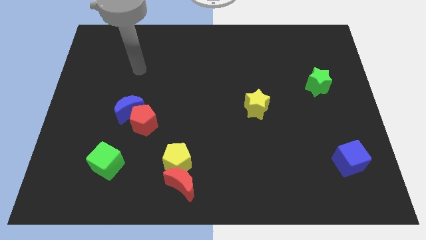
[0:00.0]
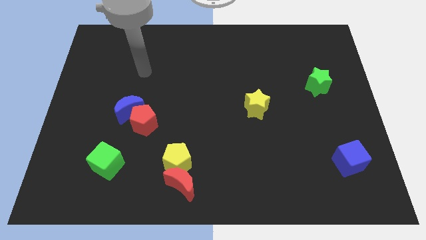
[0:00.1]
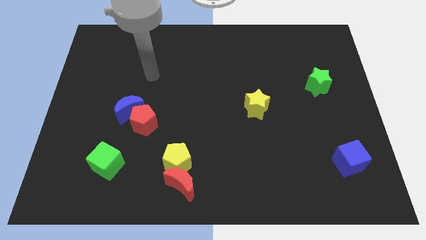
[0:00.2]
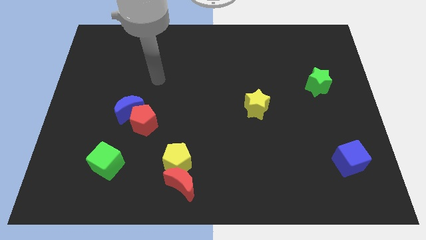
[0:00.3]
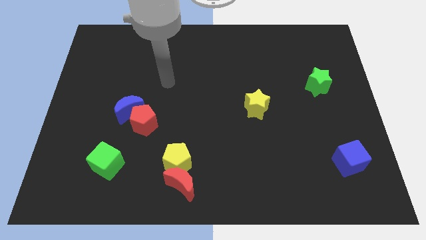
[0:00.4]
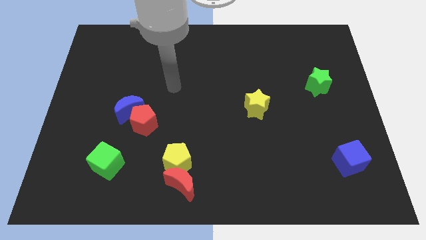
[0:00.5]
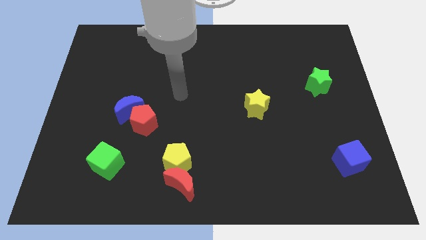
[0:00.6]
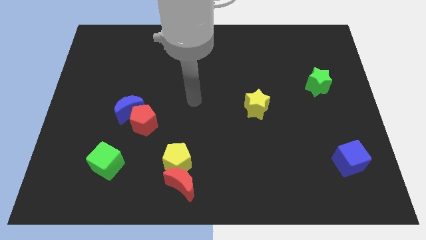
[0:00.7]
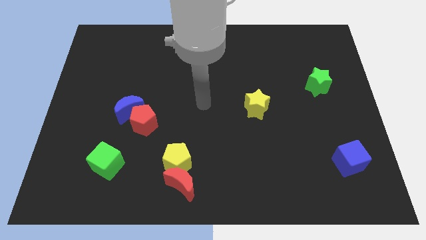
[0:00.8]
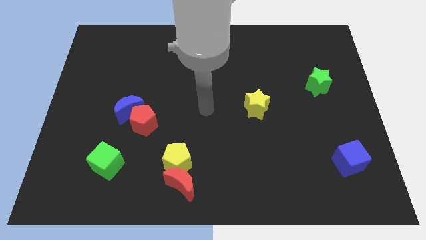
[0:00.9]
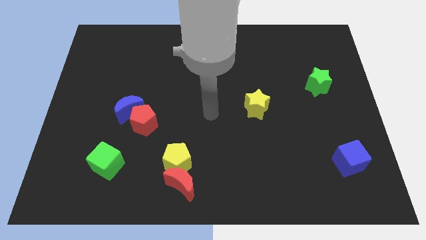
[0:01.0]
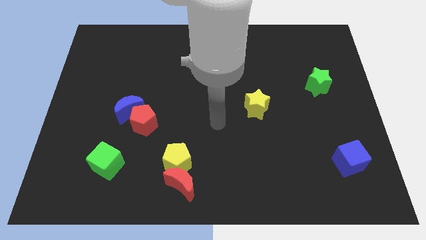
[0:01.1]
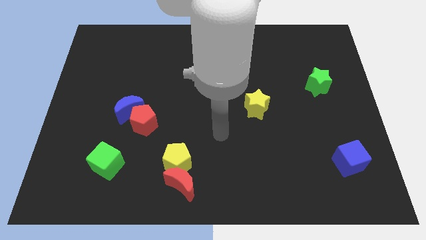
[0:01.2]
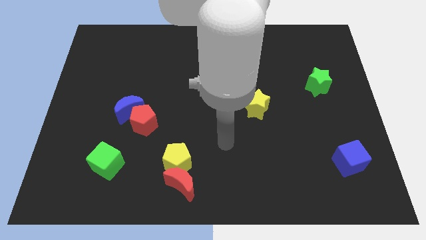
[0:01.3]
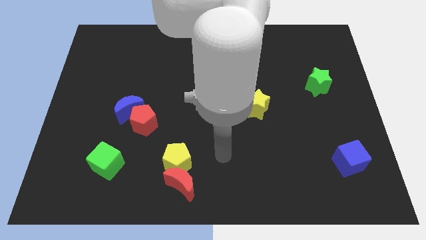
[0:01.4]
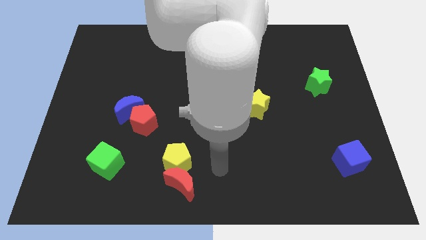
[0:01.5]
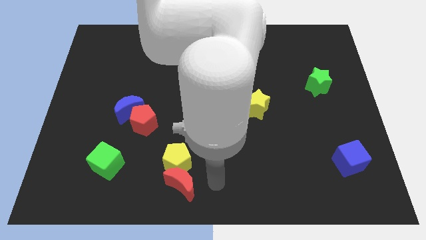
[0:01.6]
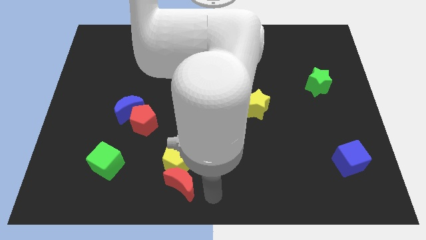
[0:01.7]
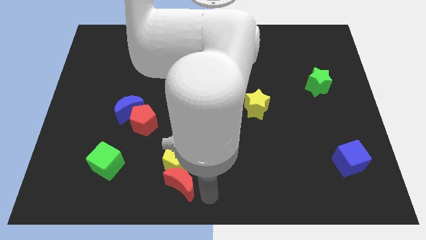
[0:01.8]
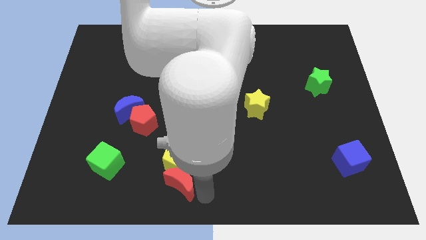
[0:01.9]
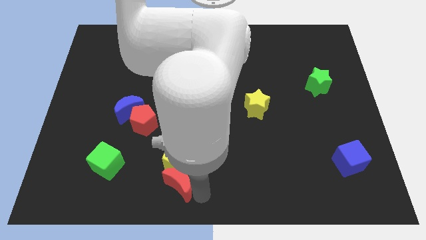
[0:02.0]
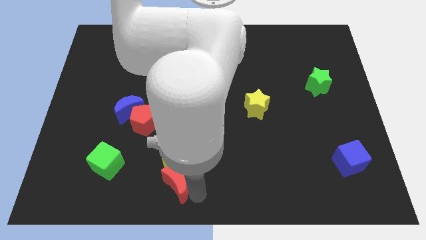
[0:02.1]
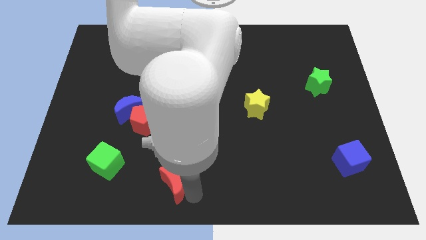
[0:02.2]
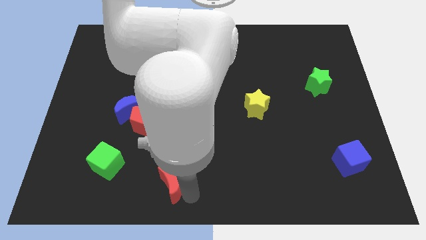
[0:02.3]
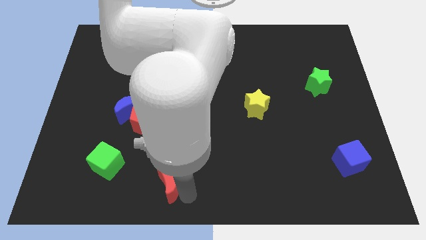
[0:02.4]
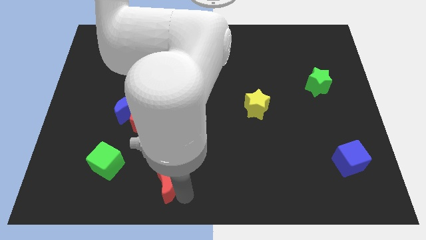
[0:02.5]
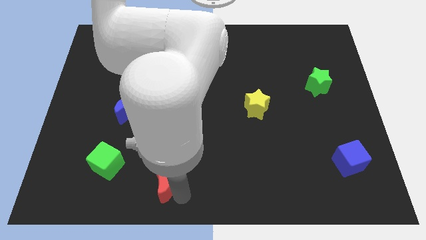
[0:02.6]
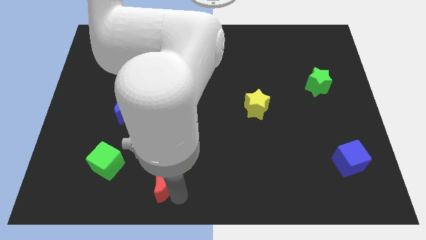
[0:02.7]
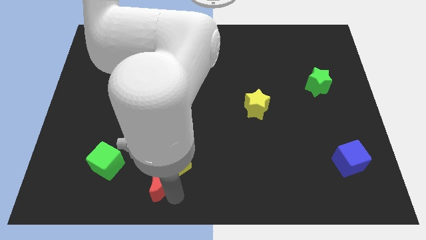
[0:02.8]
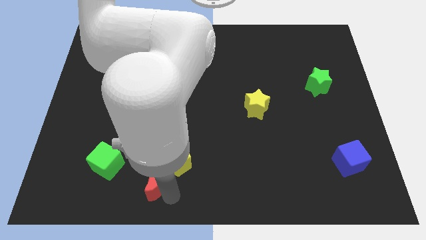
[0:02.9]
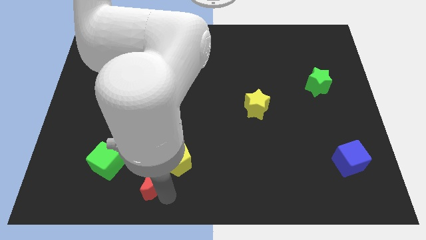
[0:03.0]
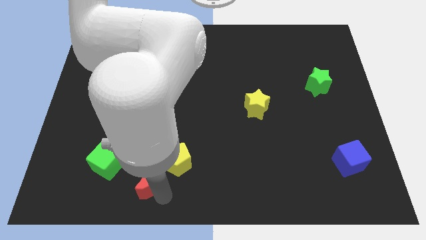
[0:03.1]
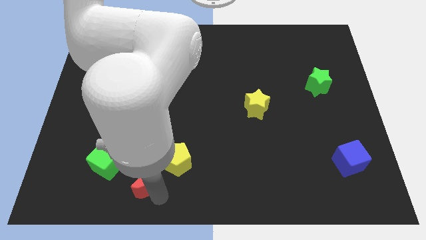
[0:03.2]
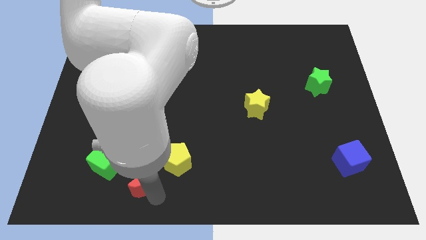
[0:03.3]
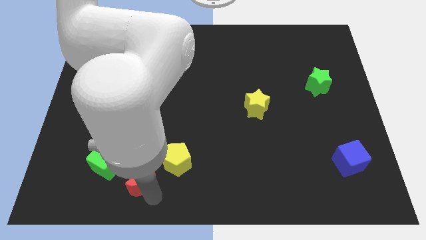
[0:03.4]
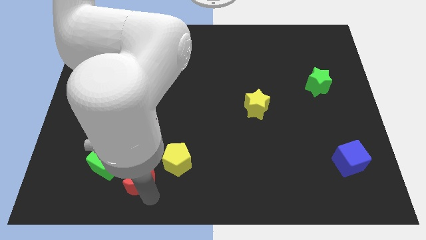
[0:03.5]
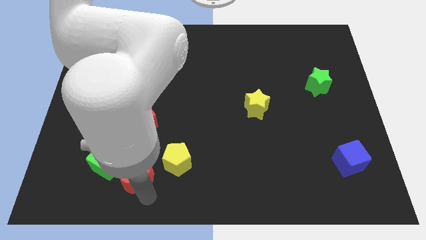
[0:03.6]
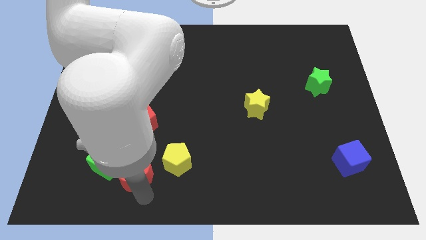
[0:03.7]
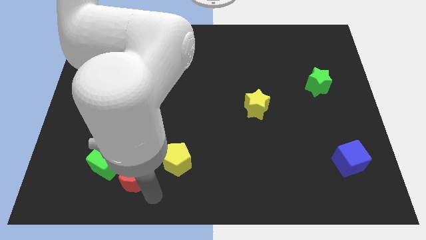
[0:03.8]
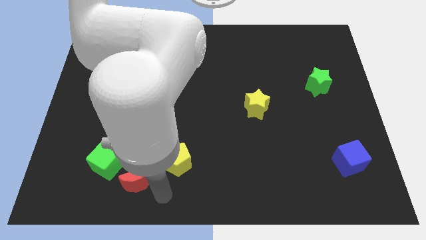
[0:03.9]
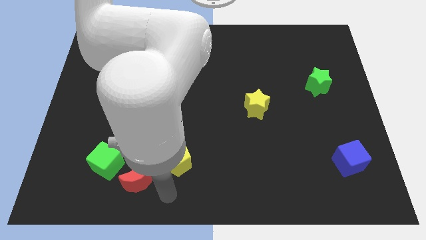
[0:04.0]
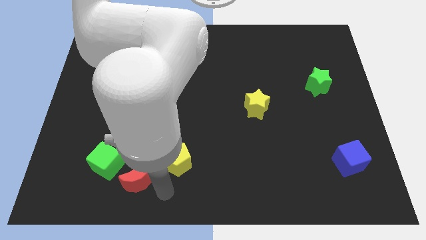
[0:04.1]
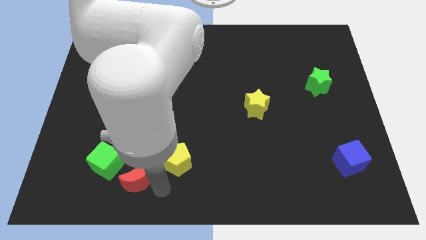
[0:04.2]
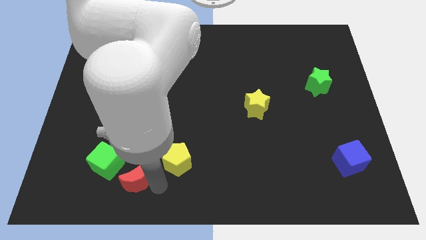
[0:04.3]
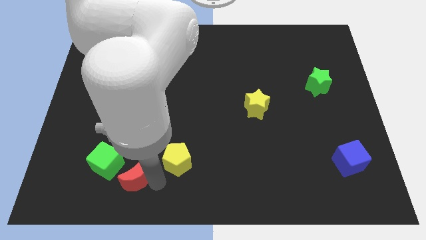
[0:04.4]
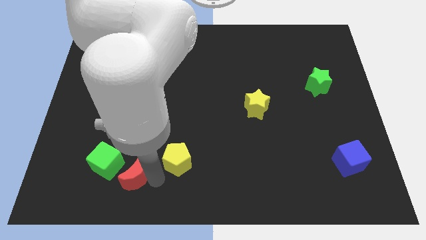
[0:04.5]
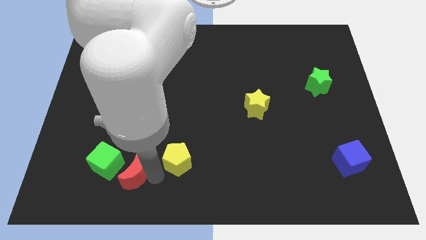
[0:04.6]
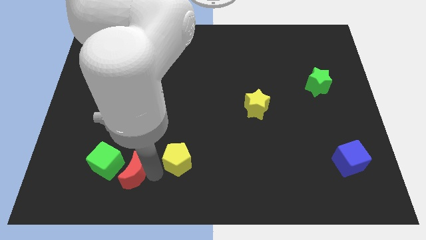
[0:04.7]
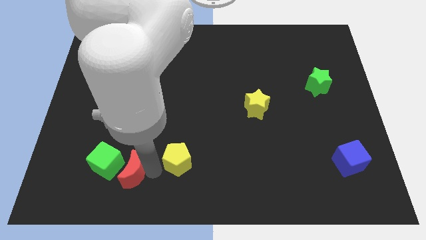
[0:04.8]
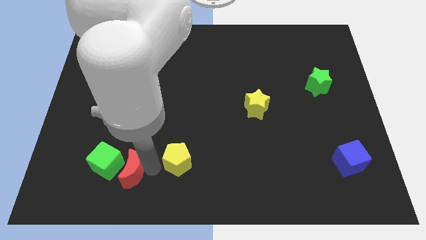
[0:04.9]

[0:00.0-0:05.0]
move the red moon next to the green cube

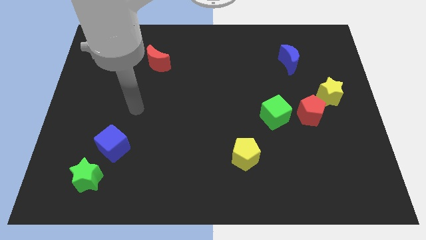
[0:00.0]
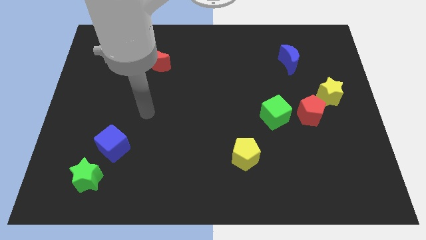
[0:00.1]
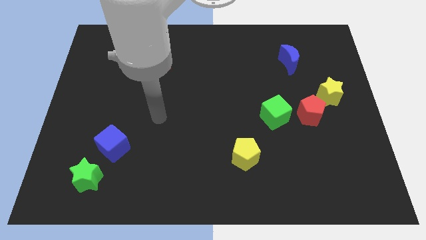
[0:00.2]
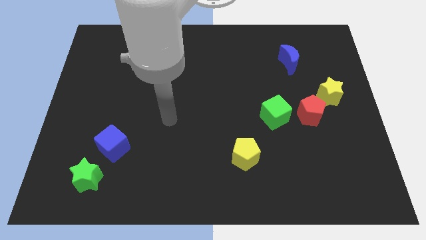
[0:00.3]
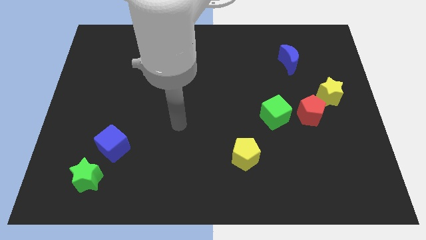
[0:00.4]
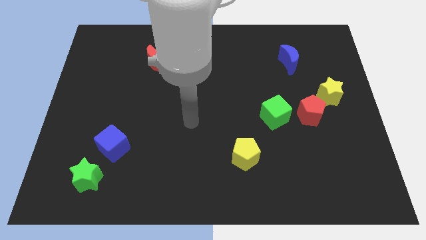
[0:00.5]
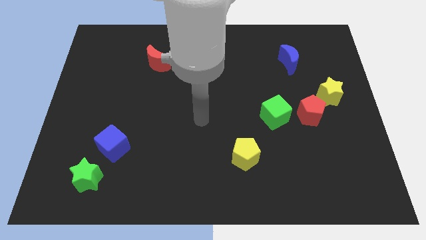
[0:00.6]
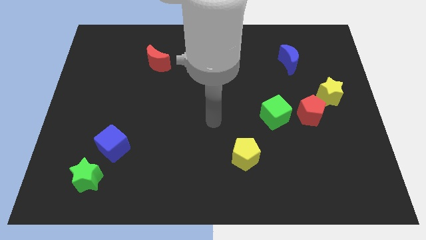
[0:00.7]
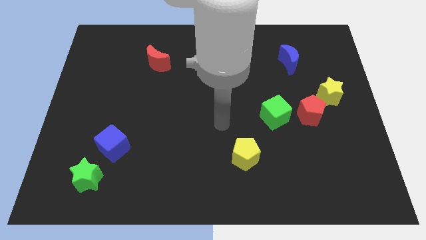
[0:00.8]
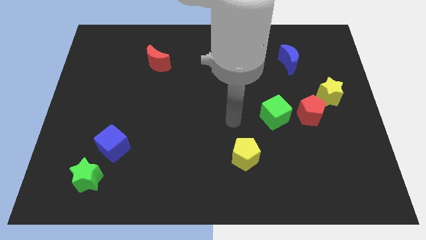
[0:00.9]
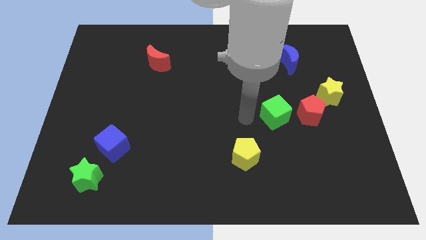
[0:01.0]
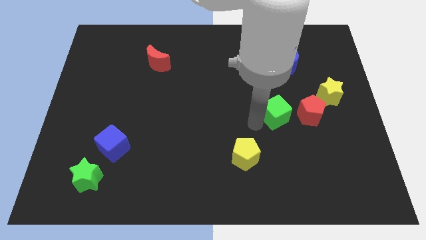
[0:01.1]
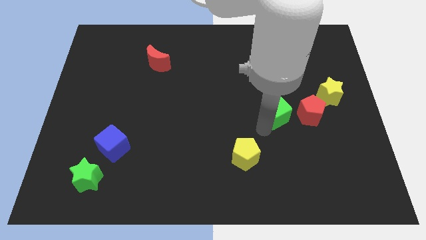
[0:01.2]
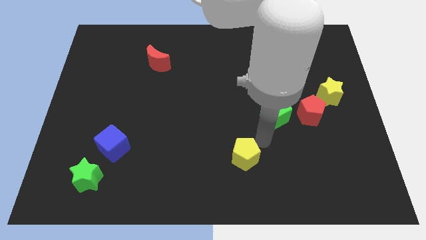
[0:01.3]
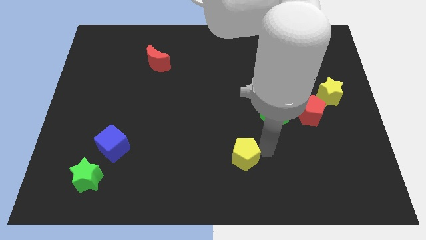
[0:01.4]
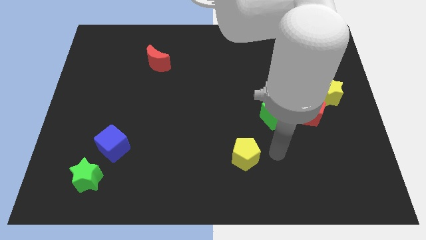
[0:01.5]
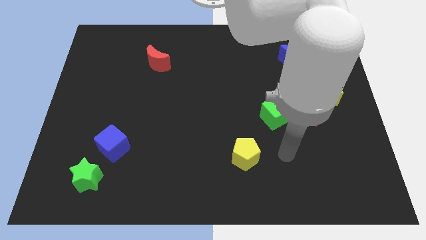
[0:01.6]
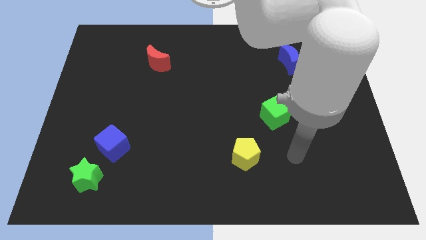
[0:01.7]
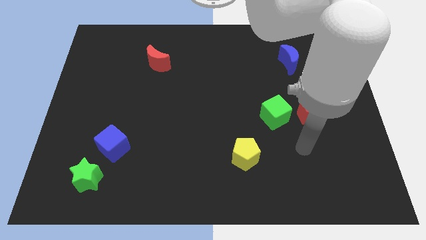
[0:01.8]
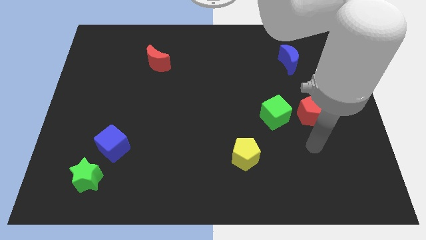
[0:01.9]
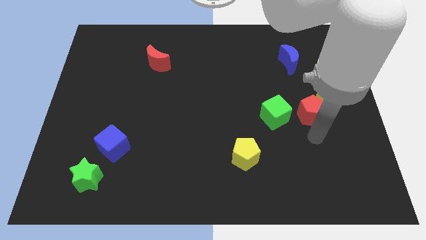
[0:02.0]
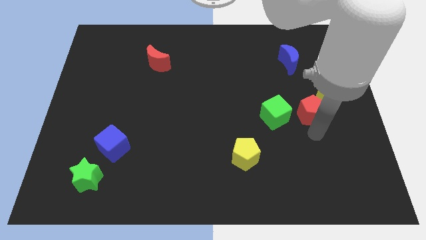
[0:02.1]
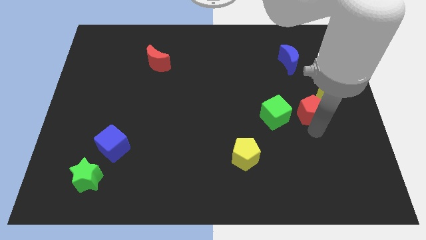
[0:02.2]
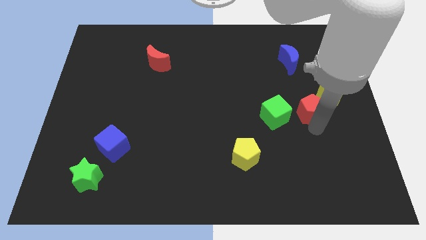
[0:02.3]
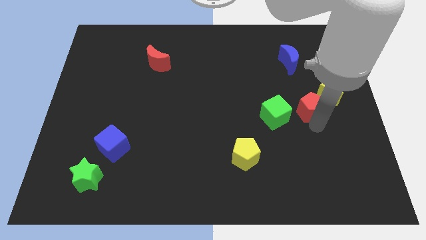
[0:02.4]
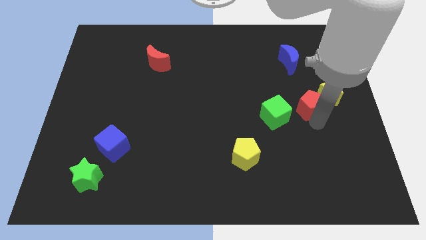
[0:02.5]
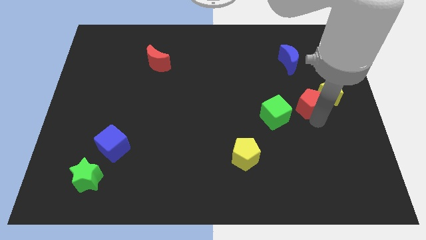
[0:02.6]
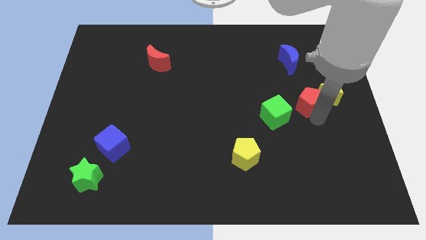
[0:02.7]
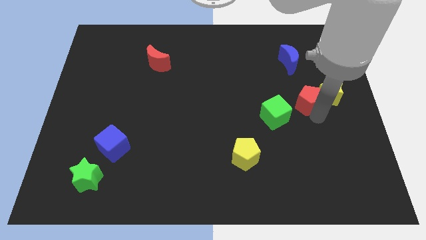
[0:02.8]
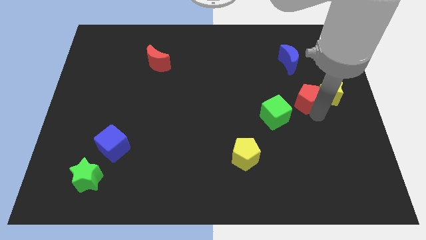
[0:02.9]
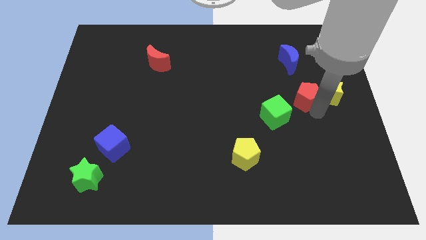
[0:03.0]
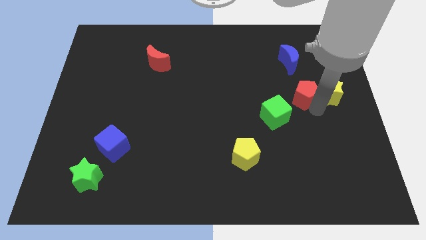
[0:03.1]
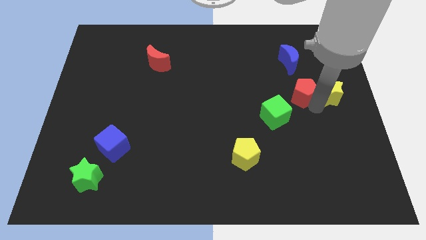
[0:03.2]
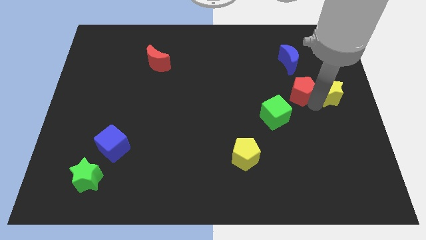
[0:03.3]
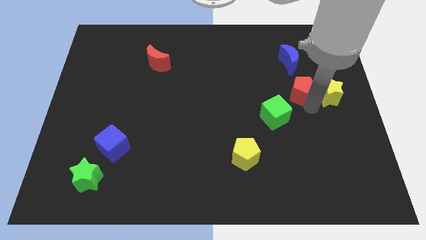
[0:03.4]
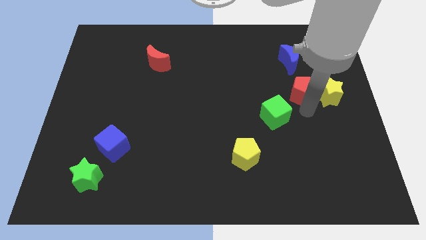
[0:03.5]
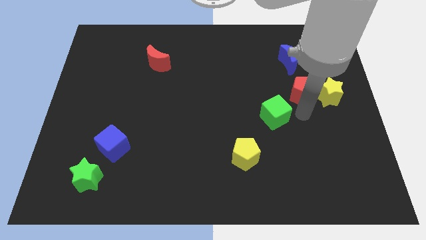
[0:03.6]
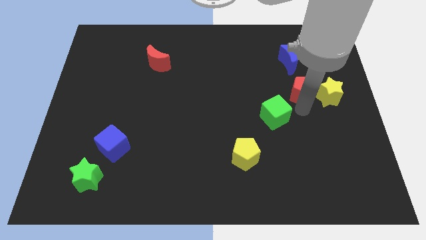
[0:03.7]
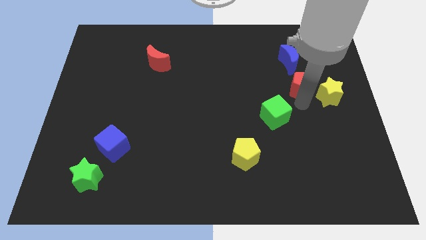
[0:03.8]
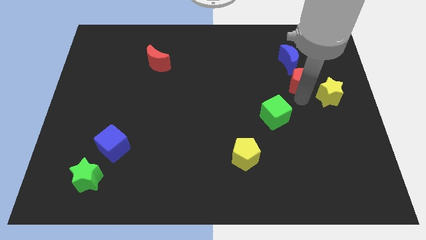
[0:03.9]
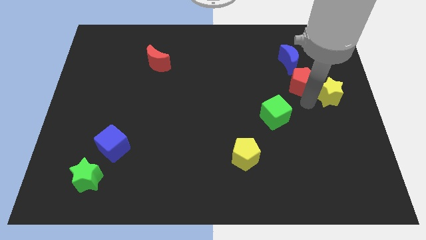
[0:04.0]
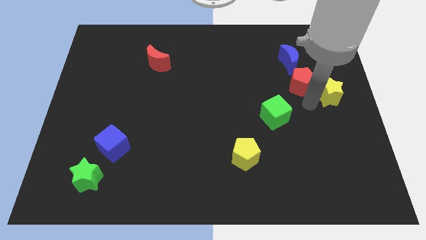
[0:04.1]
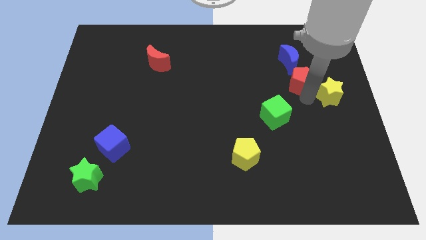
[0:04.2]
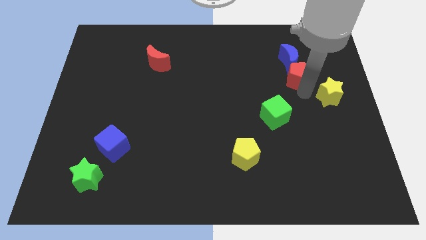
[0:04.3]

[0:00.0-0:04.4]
push the red pentagon towards the blue moon
